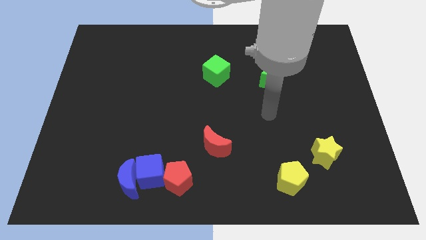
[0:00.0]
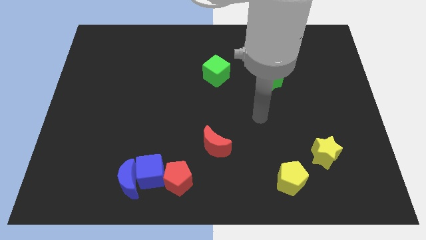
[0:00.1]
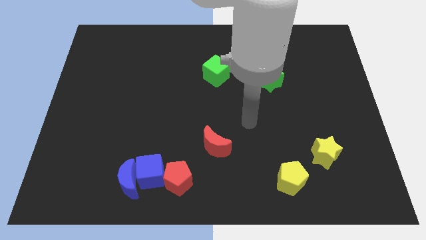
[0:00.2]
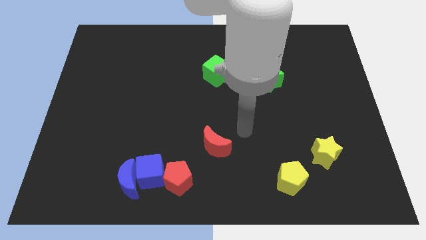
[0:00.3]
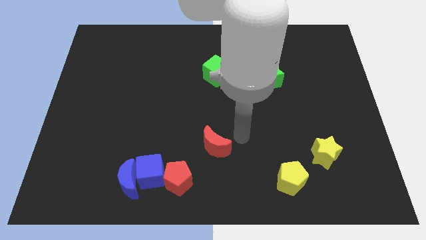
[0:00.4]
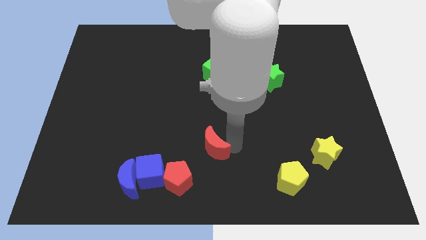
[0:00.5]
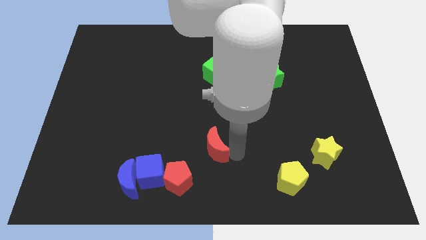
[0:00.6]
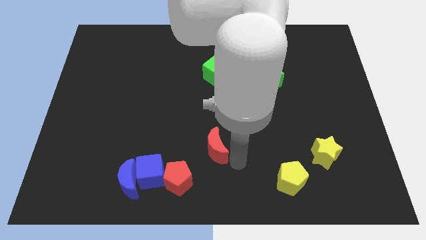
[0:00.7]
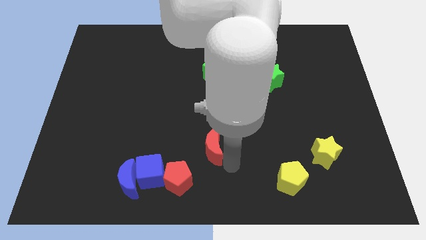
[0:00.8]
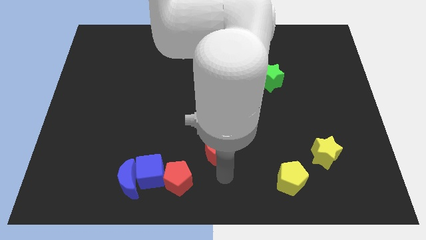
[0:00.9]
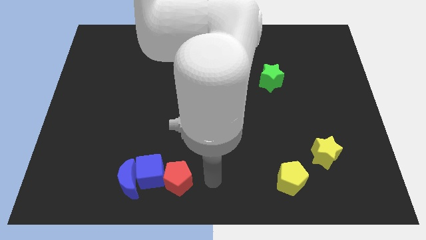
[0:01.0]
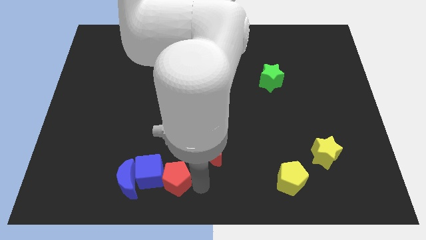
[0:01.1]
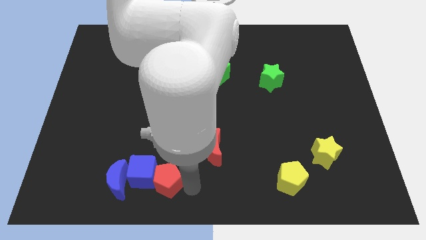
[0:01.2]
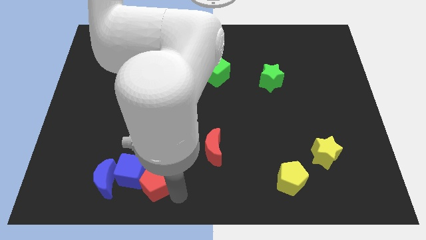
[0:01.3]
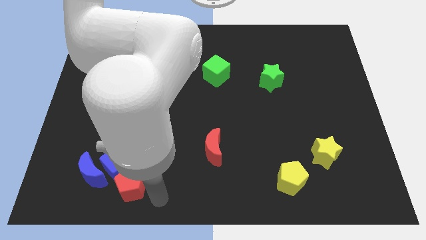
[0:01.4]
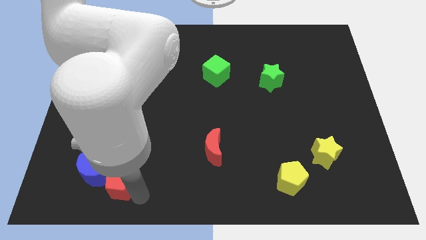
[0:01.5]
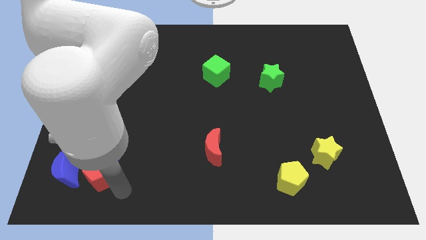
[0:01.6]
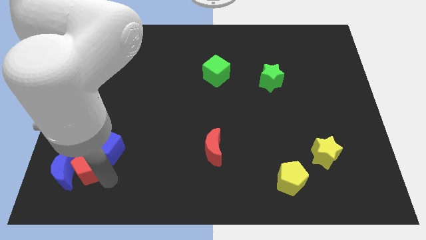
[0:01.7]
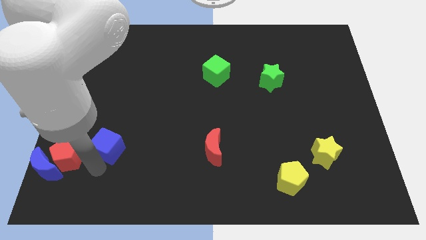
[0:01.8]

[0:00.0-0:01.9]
pull the blue cube apart from the blue moon and red pentagon

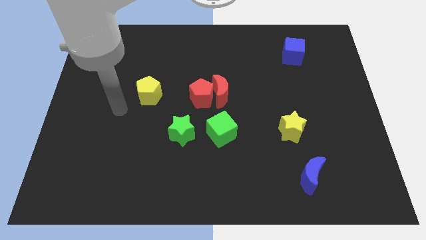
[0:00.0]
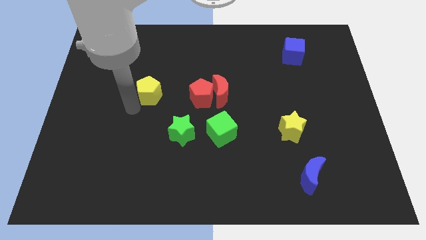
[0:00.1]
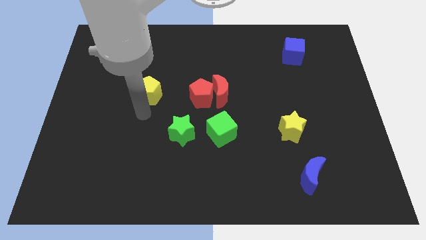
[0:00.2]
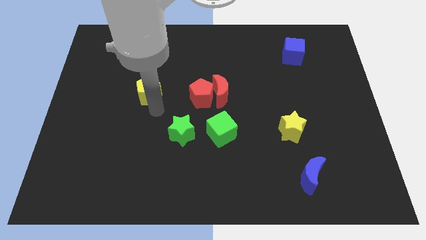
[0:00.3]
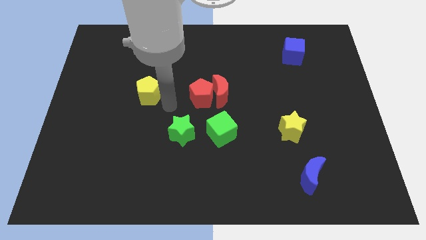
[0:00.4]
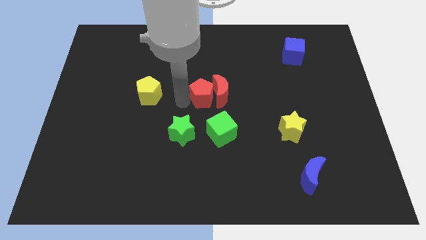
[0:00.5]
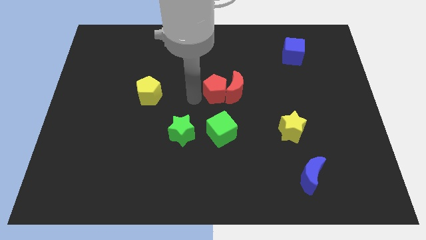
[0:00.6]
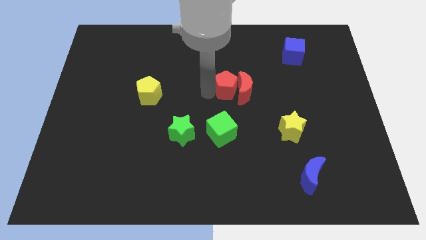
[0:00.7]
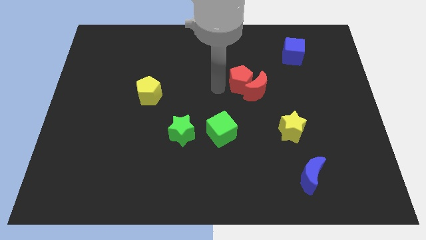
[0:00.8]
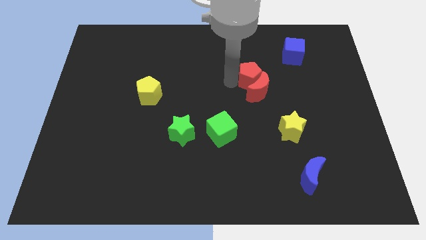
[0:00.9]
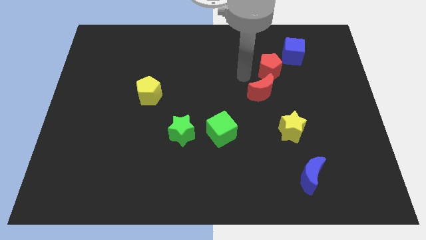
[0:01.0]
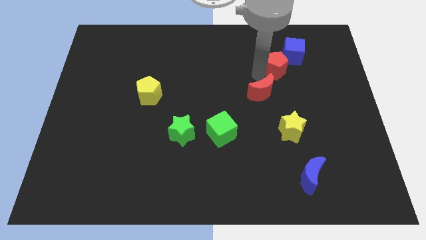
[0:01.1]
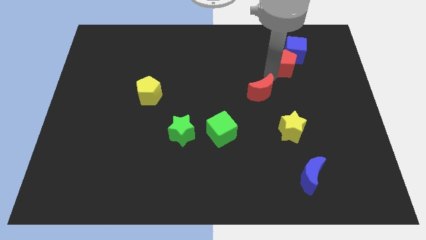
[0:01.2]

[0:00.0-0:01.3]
pull the red moon apart from the red pentagon

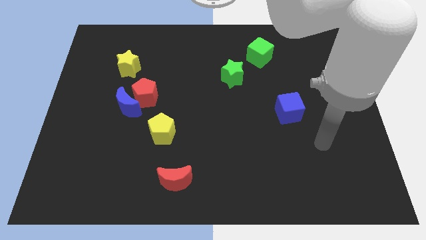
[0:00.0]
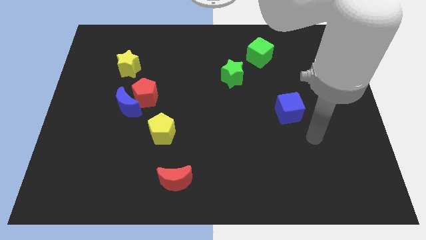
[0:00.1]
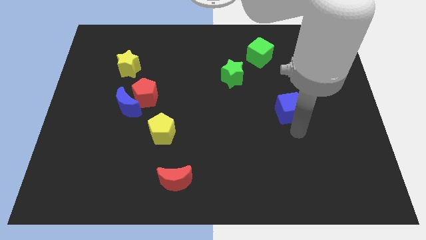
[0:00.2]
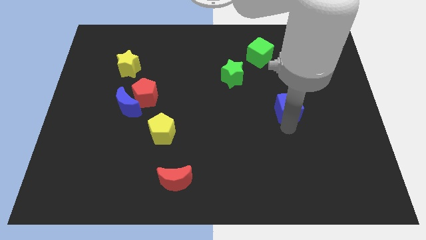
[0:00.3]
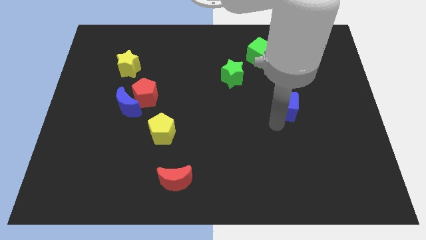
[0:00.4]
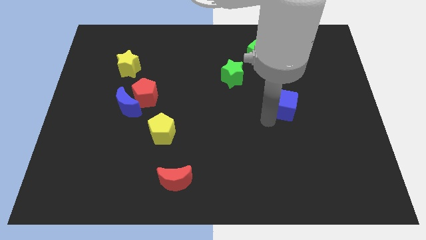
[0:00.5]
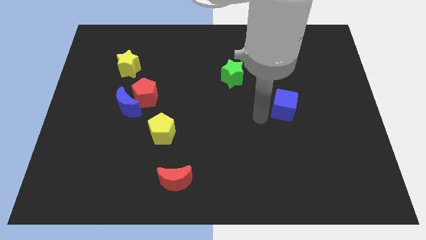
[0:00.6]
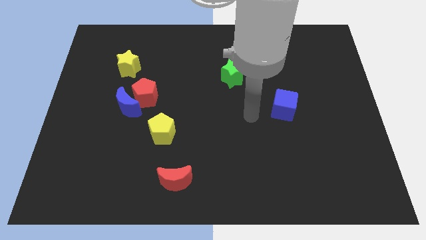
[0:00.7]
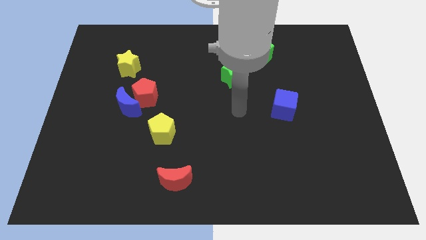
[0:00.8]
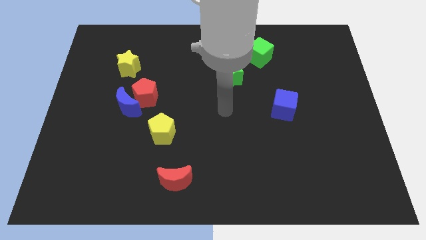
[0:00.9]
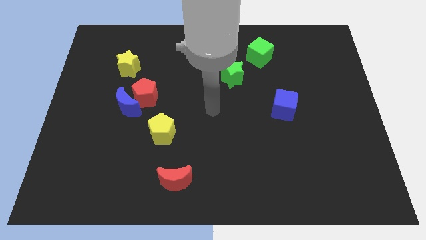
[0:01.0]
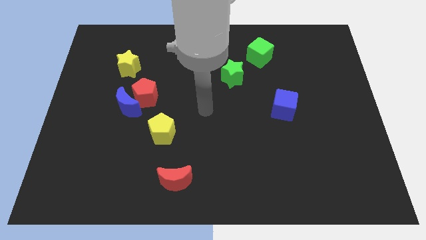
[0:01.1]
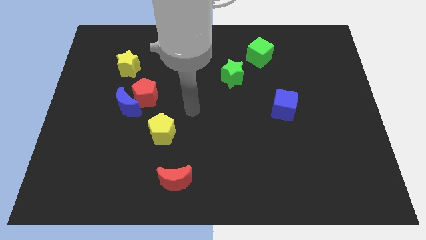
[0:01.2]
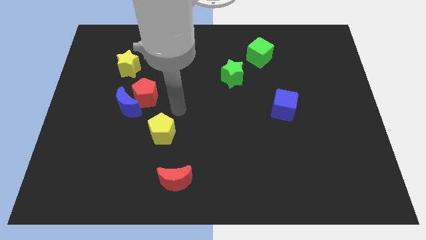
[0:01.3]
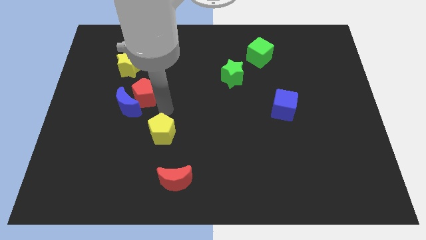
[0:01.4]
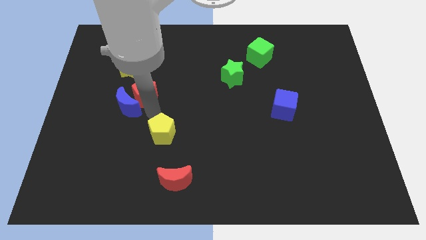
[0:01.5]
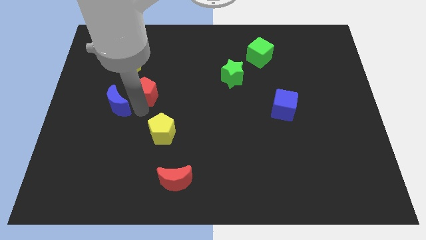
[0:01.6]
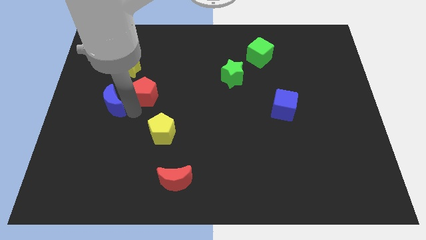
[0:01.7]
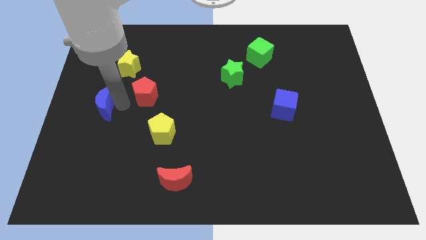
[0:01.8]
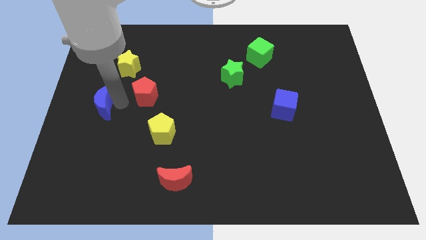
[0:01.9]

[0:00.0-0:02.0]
pull the red pentagon apart from the blue moon

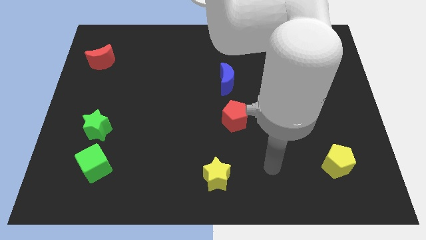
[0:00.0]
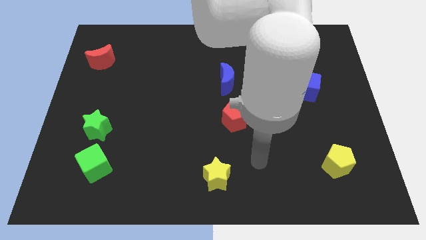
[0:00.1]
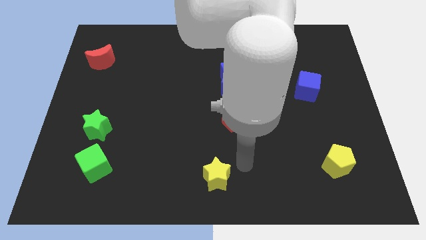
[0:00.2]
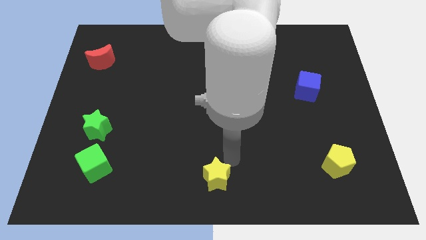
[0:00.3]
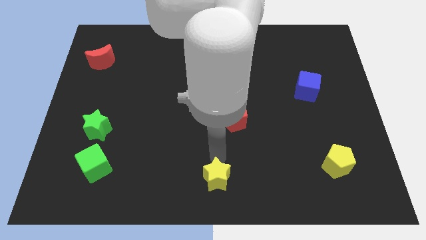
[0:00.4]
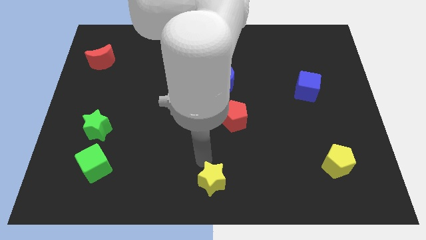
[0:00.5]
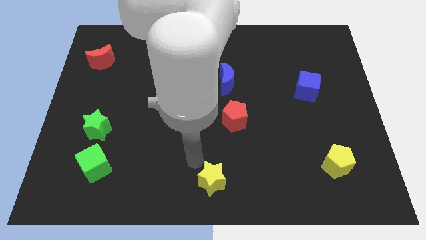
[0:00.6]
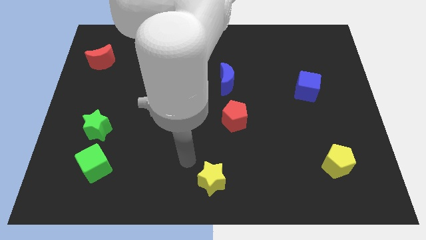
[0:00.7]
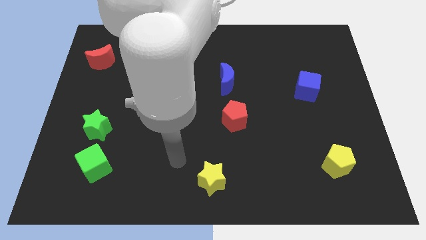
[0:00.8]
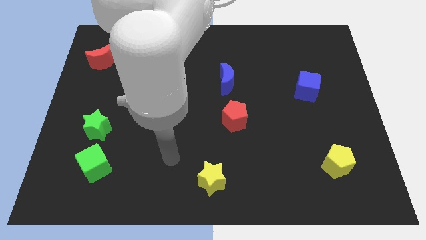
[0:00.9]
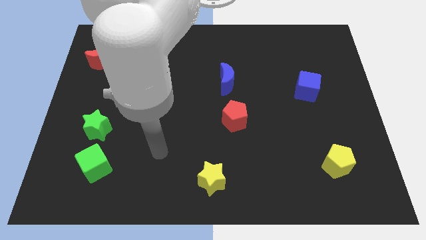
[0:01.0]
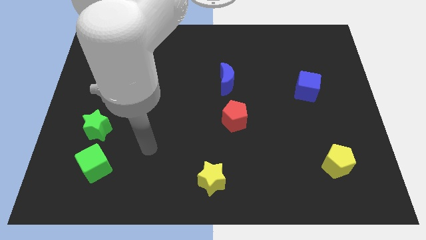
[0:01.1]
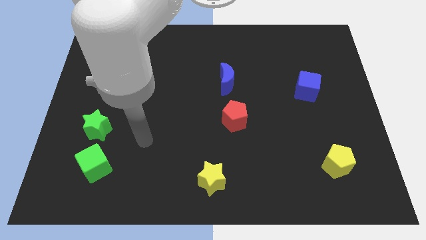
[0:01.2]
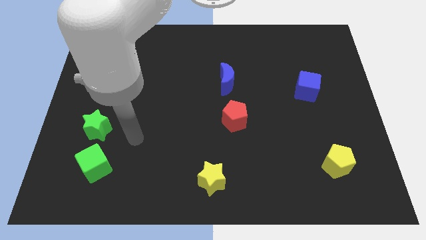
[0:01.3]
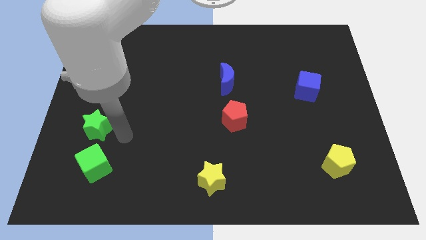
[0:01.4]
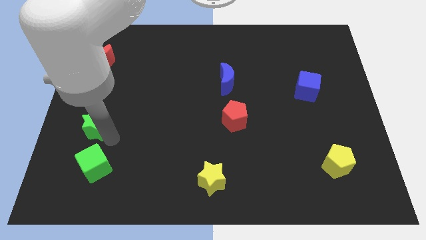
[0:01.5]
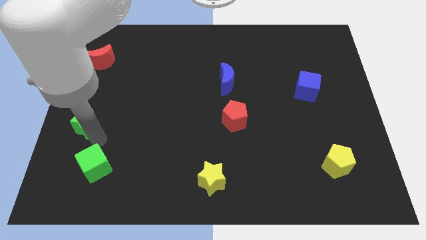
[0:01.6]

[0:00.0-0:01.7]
pull the green cube apart from the green star

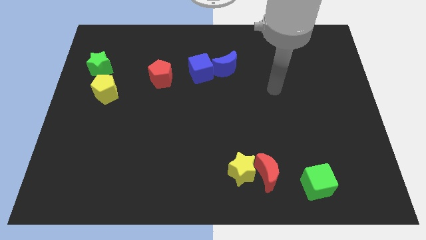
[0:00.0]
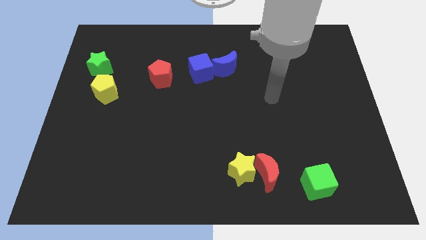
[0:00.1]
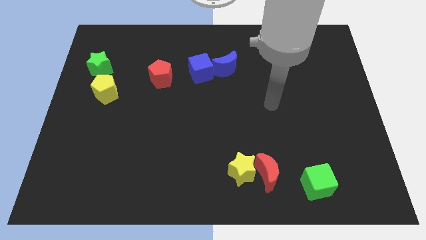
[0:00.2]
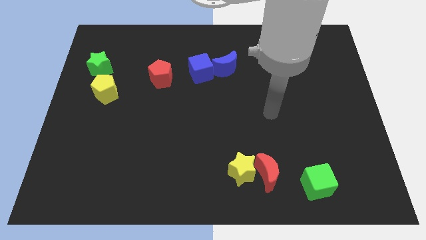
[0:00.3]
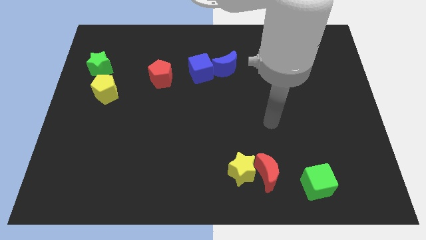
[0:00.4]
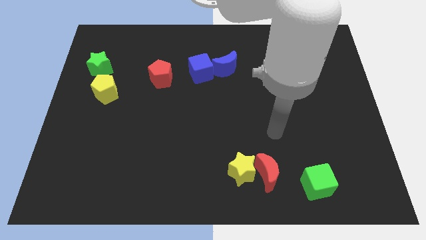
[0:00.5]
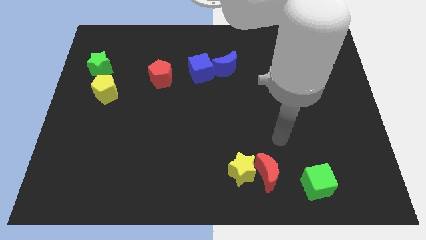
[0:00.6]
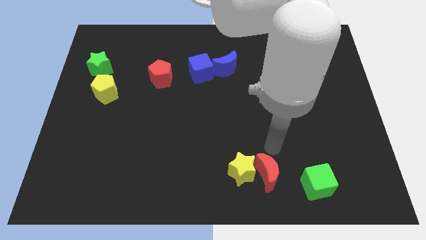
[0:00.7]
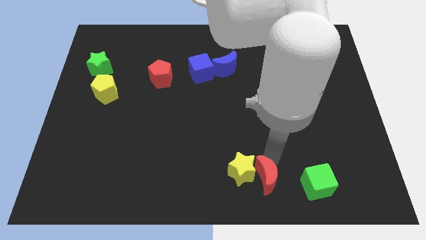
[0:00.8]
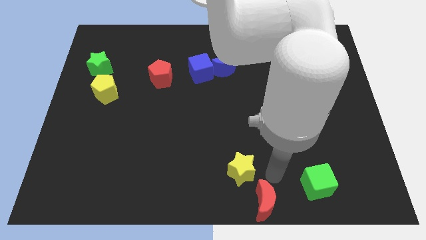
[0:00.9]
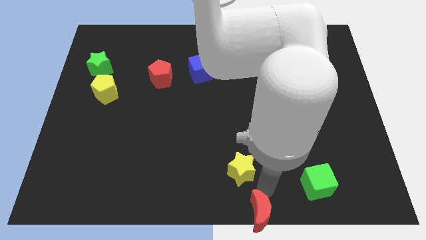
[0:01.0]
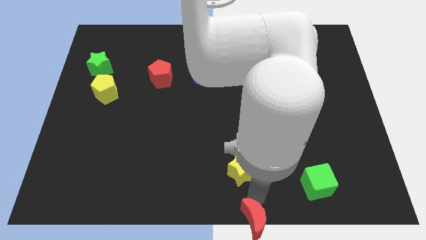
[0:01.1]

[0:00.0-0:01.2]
move the yellow star away from the red moon

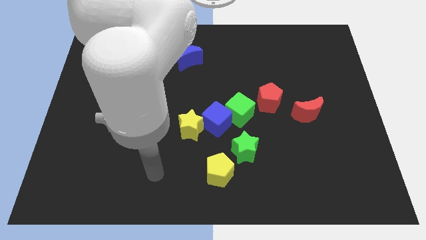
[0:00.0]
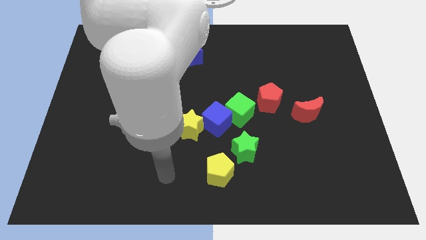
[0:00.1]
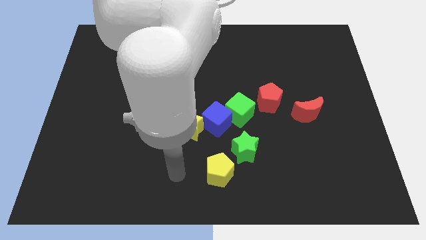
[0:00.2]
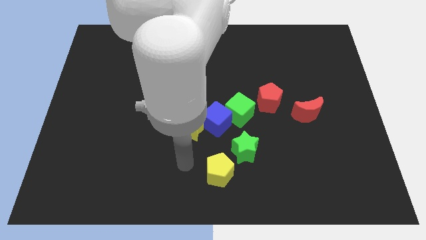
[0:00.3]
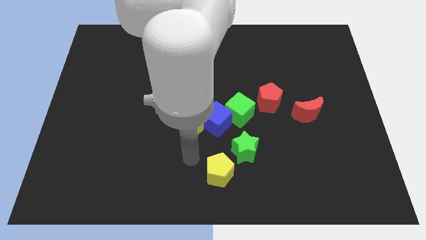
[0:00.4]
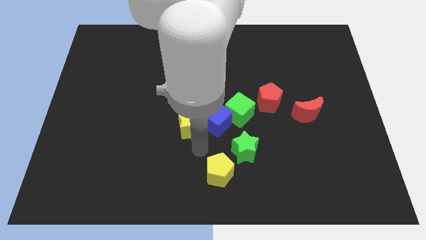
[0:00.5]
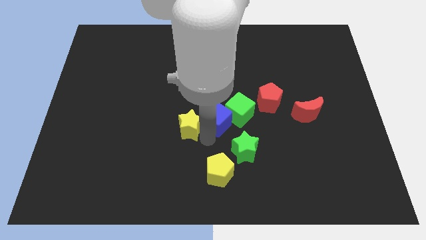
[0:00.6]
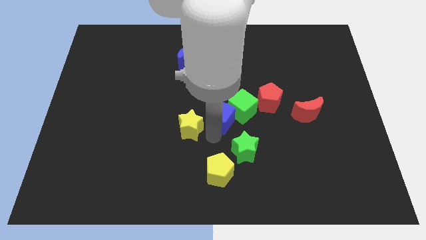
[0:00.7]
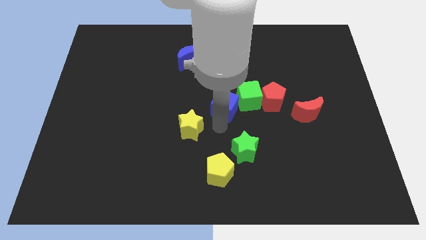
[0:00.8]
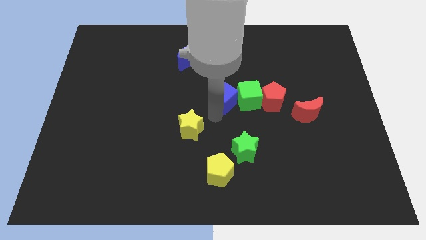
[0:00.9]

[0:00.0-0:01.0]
pull the yellow star apart from the blue cube

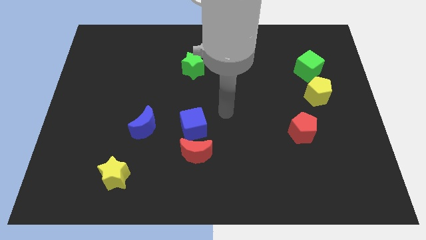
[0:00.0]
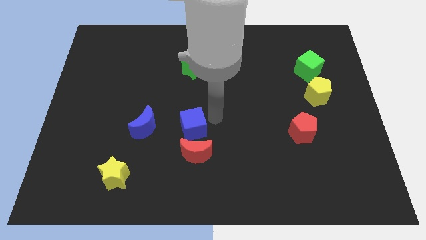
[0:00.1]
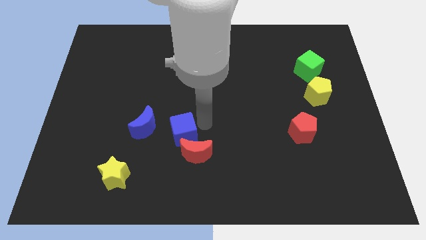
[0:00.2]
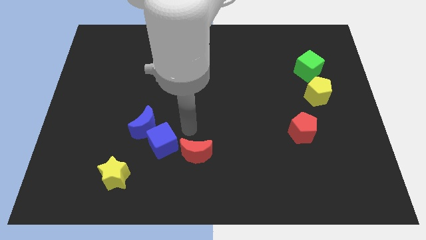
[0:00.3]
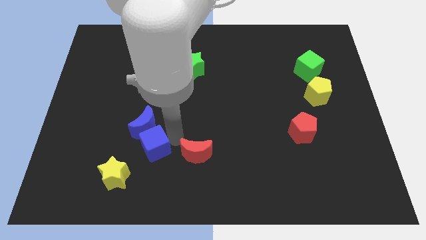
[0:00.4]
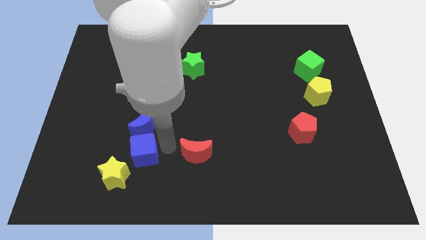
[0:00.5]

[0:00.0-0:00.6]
pull the red moon apart from the blue cube
